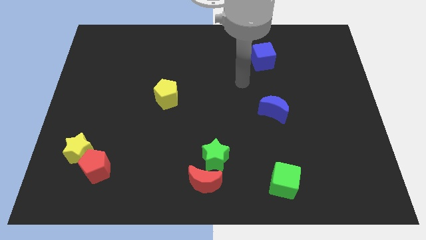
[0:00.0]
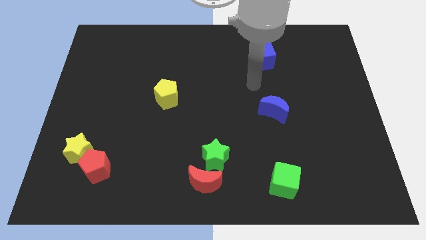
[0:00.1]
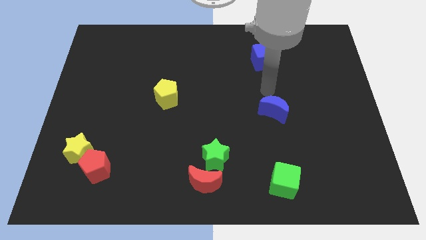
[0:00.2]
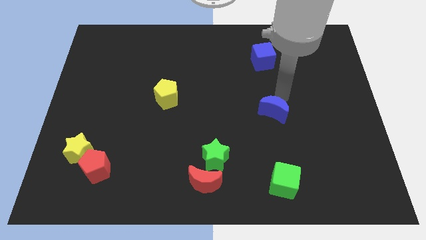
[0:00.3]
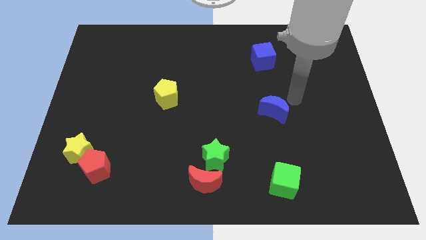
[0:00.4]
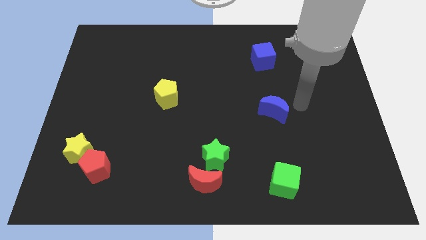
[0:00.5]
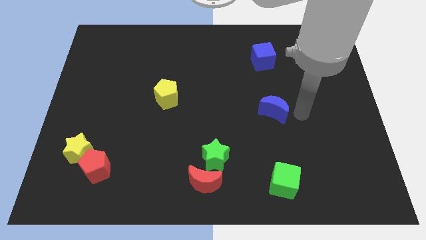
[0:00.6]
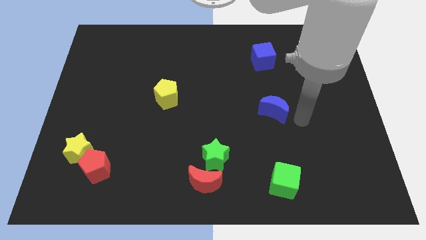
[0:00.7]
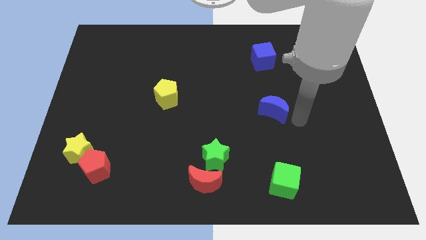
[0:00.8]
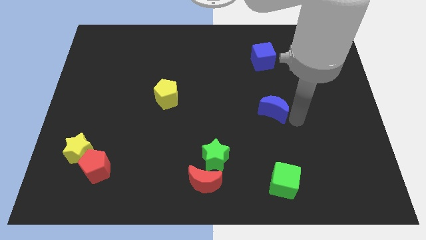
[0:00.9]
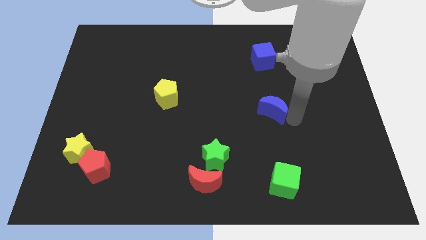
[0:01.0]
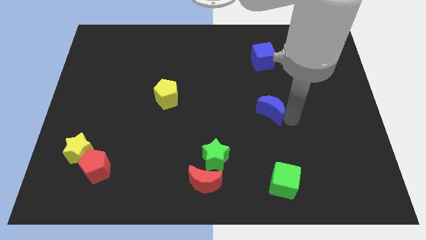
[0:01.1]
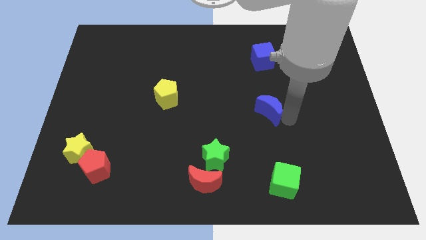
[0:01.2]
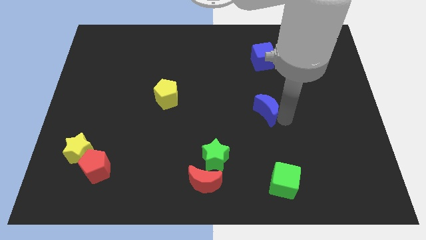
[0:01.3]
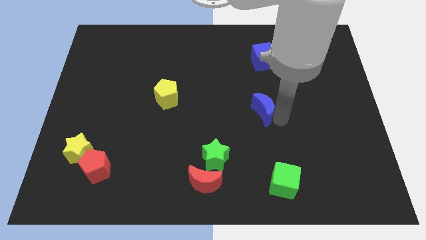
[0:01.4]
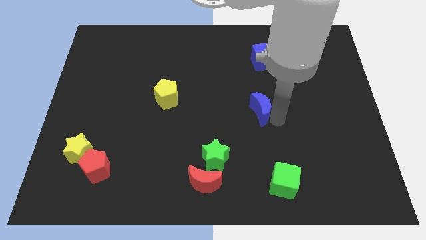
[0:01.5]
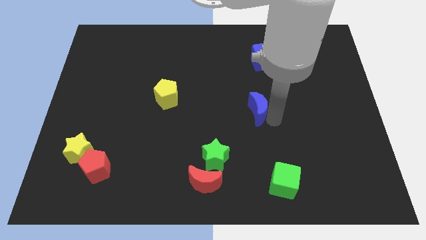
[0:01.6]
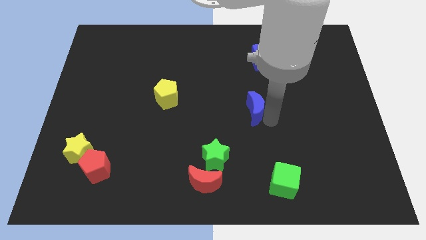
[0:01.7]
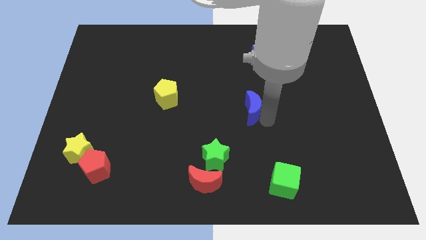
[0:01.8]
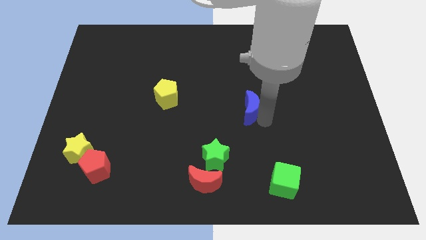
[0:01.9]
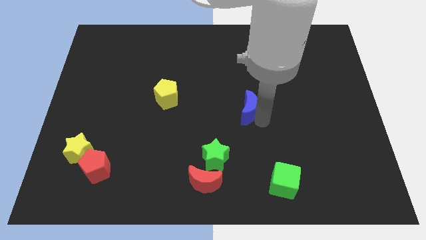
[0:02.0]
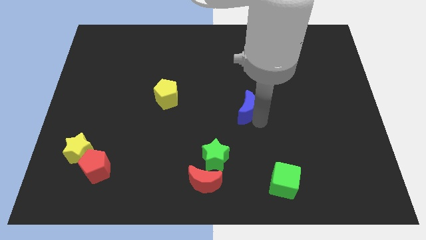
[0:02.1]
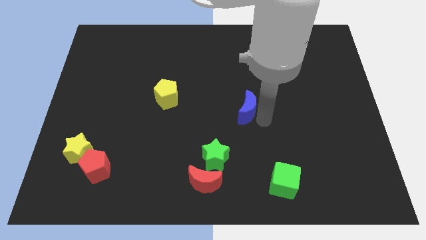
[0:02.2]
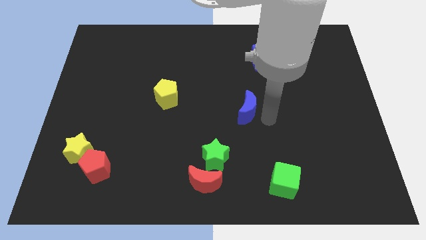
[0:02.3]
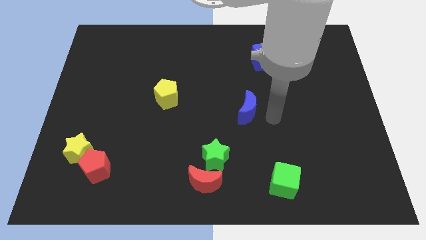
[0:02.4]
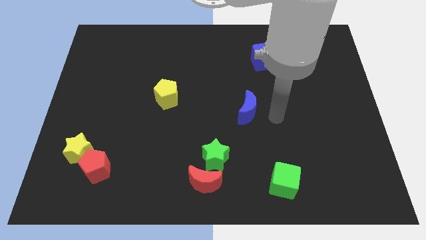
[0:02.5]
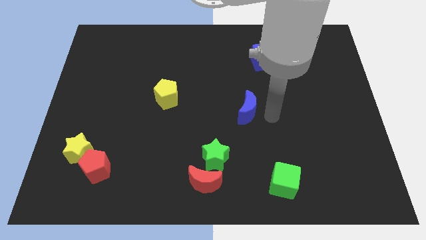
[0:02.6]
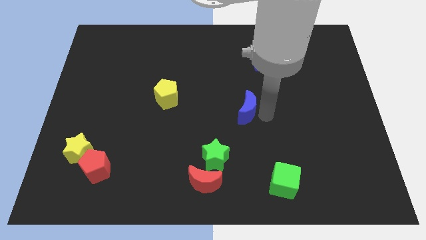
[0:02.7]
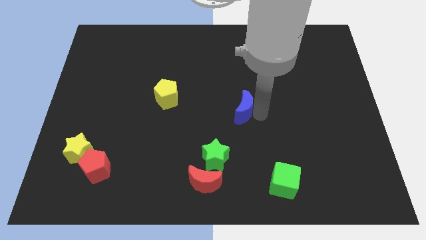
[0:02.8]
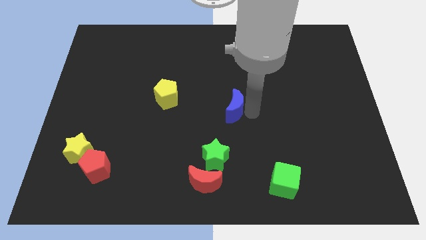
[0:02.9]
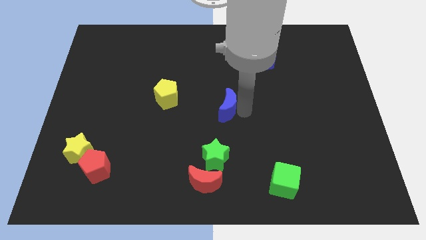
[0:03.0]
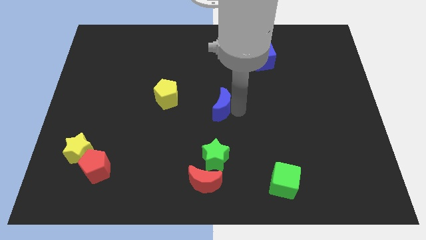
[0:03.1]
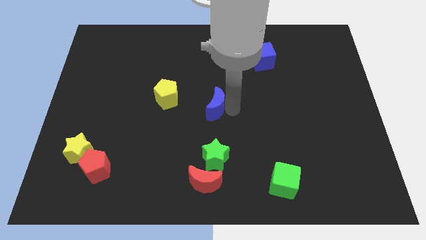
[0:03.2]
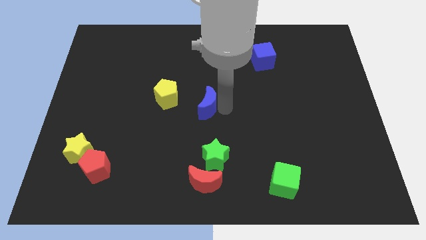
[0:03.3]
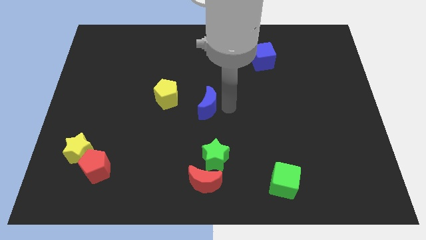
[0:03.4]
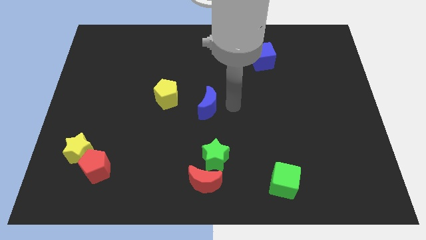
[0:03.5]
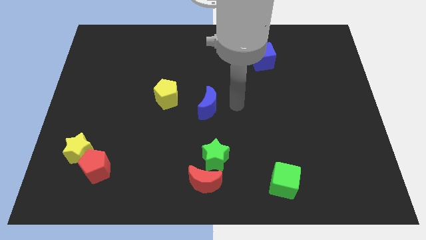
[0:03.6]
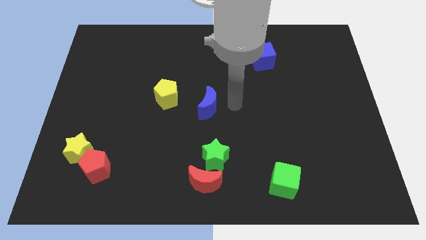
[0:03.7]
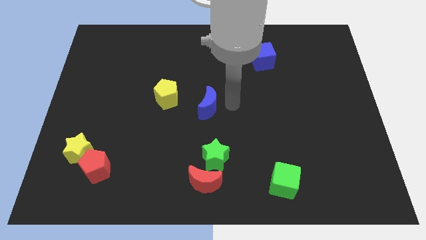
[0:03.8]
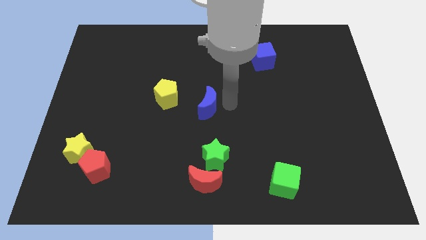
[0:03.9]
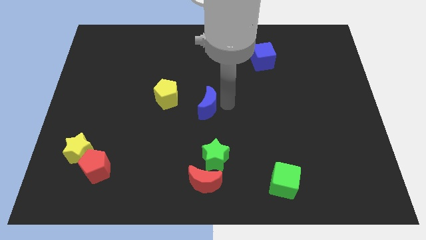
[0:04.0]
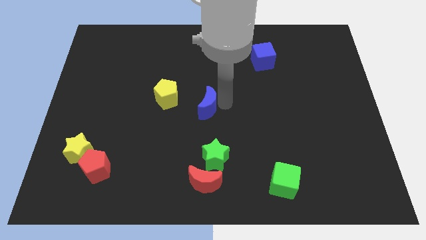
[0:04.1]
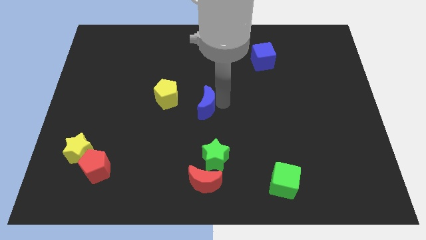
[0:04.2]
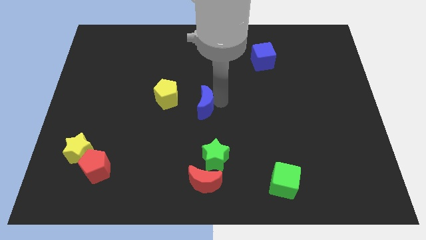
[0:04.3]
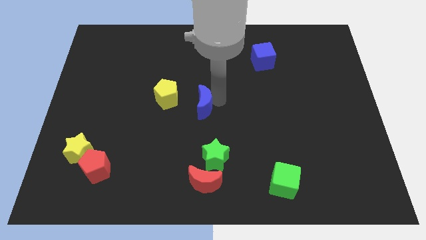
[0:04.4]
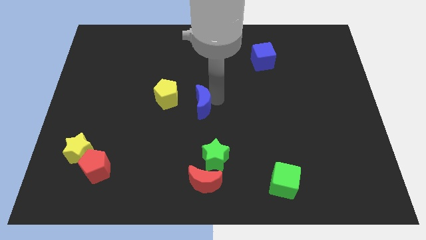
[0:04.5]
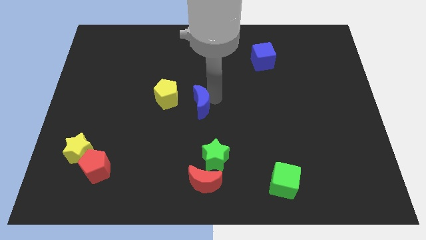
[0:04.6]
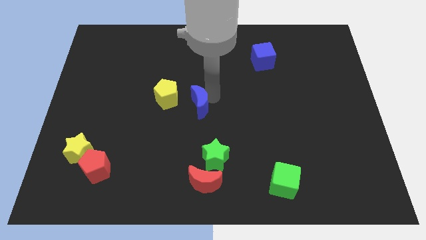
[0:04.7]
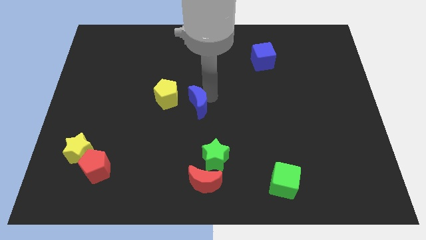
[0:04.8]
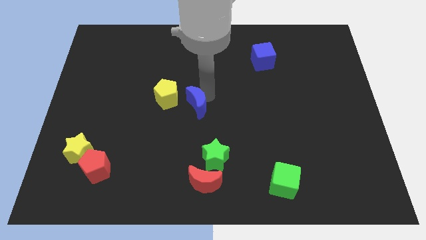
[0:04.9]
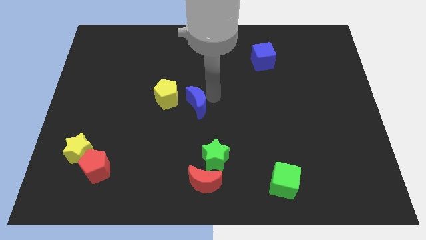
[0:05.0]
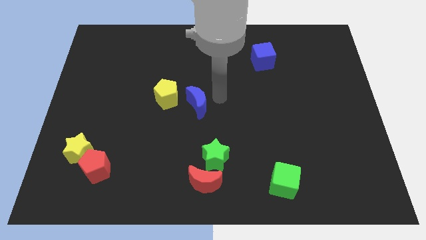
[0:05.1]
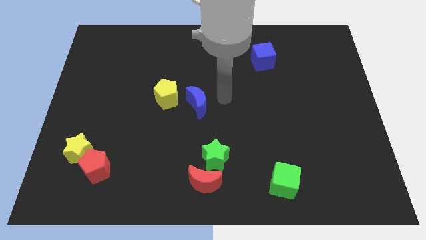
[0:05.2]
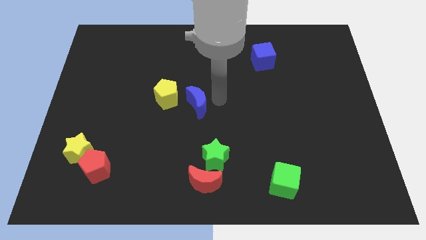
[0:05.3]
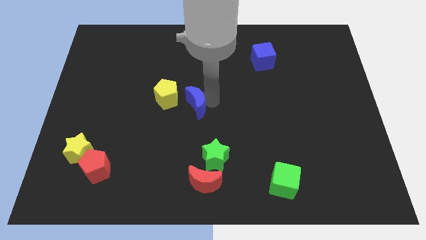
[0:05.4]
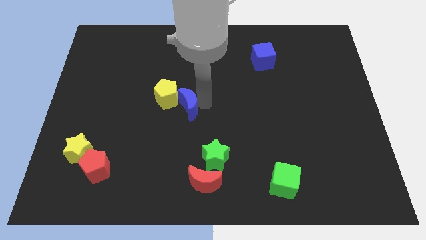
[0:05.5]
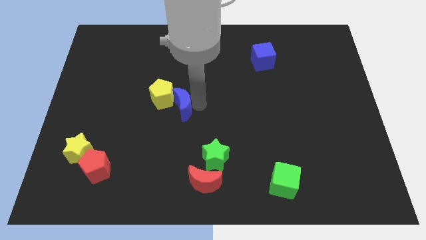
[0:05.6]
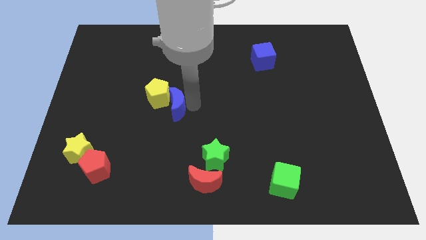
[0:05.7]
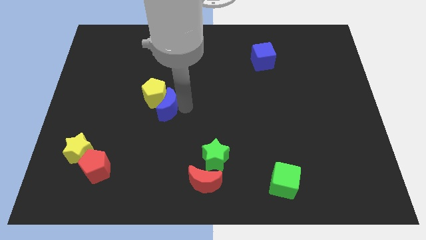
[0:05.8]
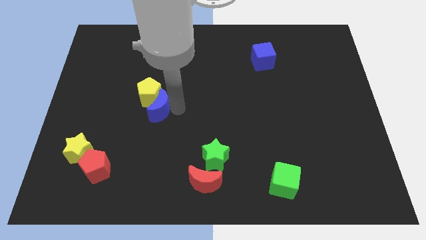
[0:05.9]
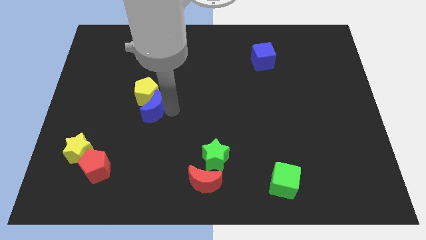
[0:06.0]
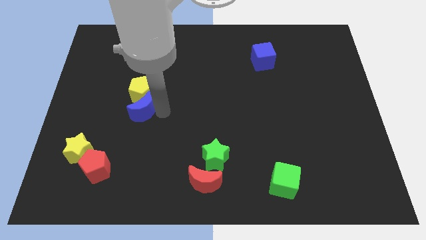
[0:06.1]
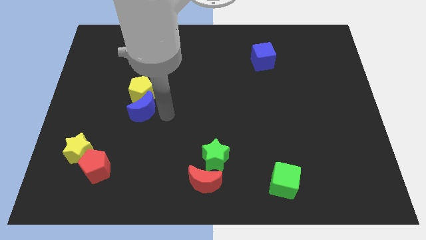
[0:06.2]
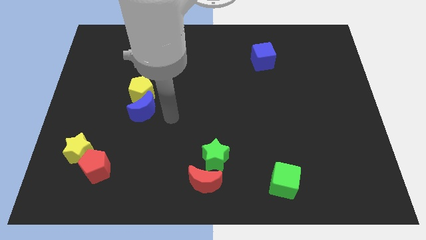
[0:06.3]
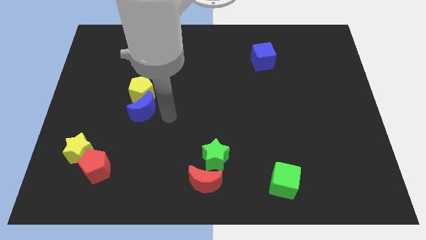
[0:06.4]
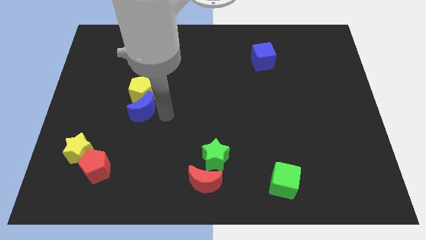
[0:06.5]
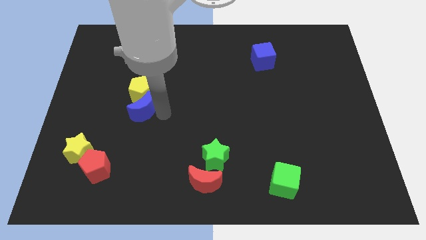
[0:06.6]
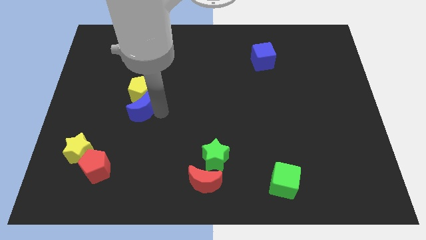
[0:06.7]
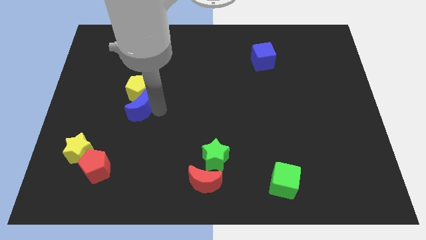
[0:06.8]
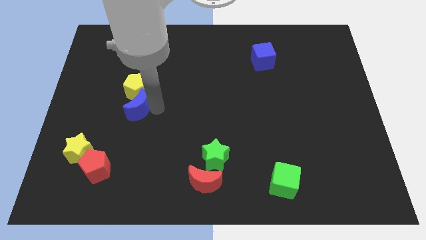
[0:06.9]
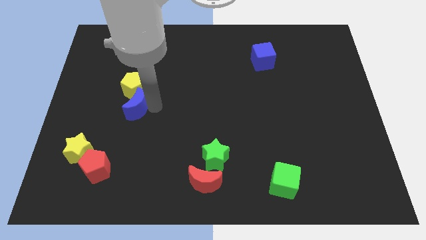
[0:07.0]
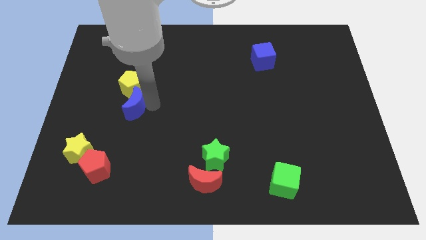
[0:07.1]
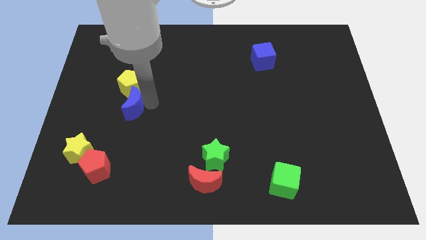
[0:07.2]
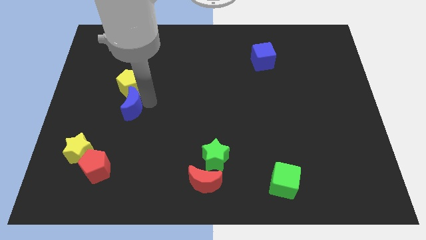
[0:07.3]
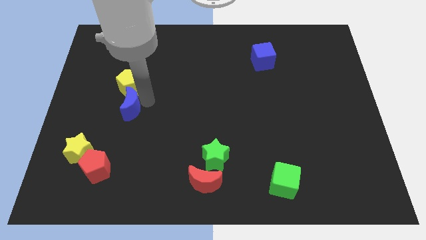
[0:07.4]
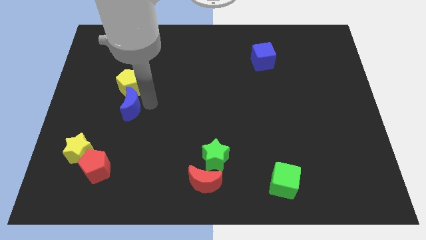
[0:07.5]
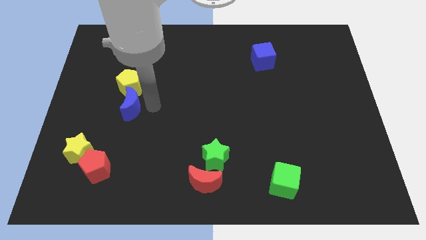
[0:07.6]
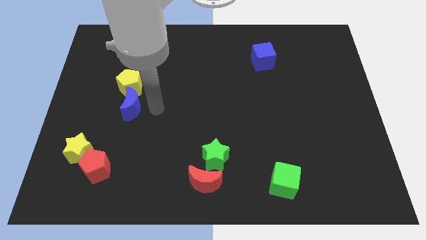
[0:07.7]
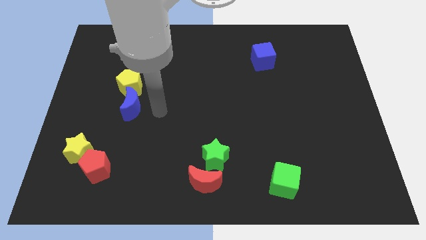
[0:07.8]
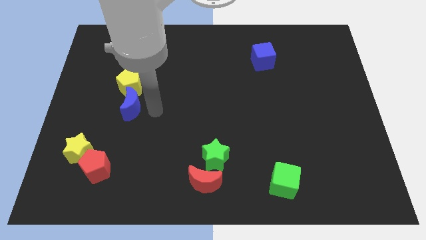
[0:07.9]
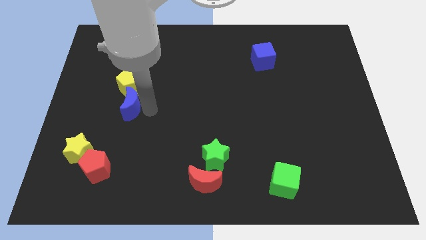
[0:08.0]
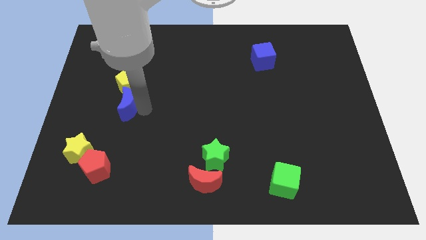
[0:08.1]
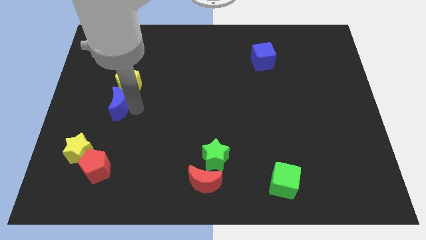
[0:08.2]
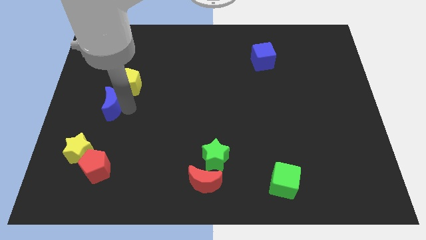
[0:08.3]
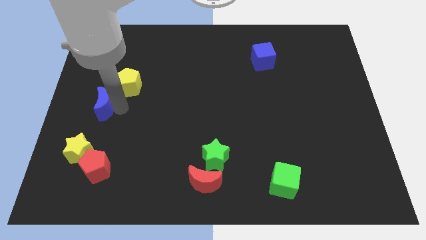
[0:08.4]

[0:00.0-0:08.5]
move the blue moon to the center left
